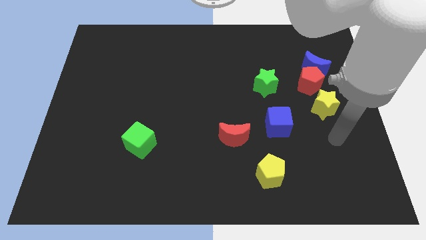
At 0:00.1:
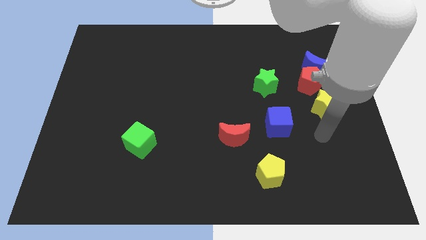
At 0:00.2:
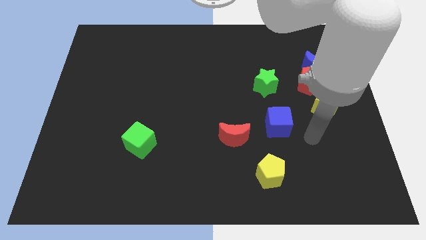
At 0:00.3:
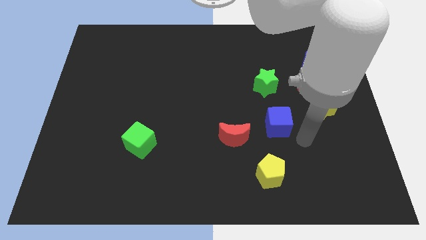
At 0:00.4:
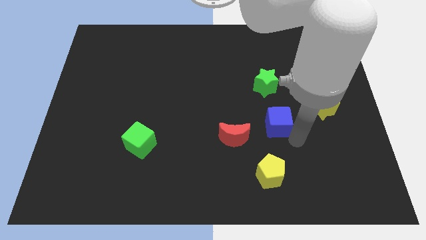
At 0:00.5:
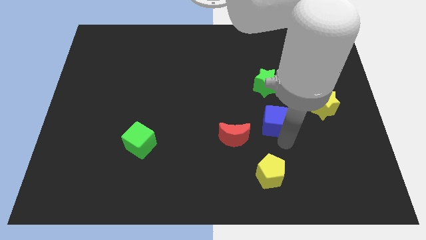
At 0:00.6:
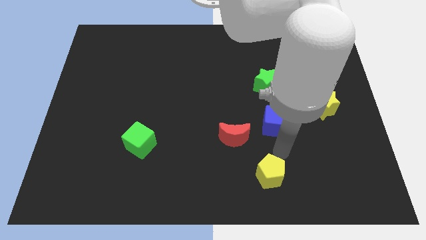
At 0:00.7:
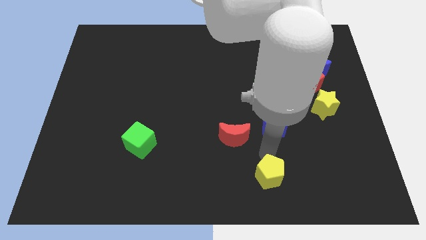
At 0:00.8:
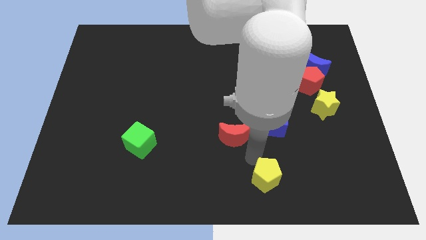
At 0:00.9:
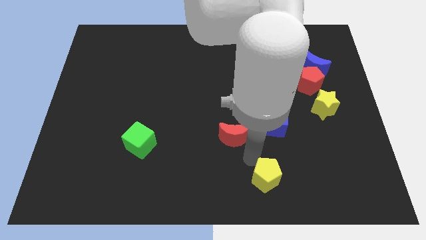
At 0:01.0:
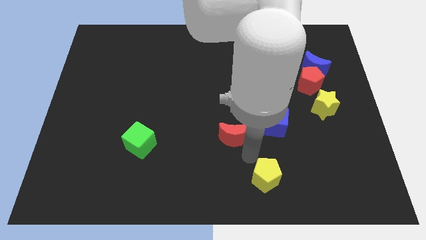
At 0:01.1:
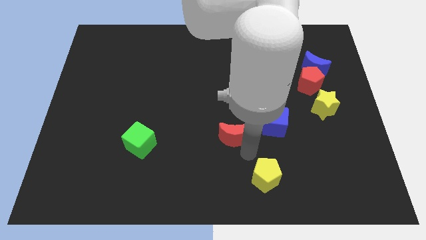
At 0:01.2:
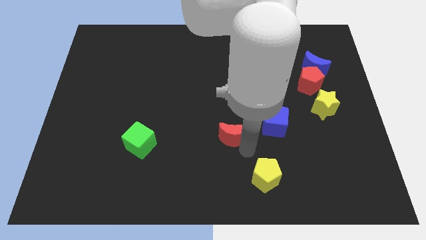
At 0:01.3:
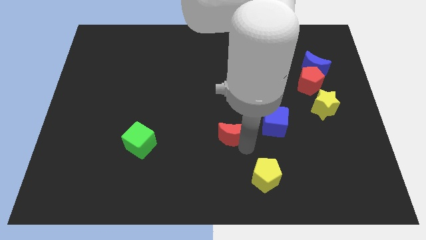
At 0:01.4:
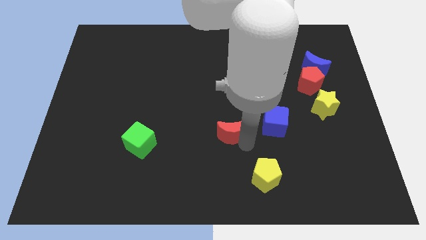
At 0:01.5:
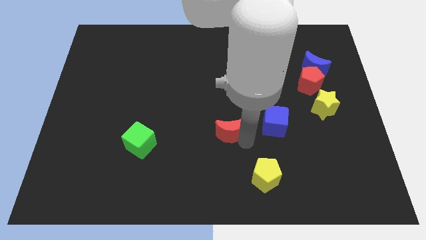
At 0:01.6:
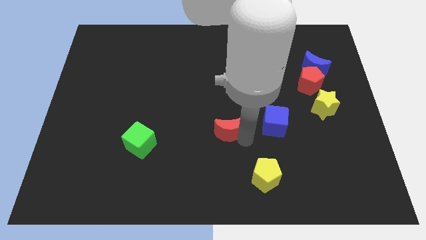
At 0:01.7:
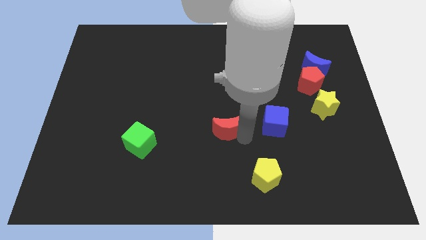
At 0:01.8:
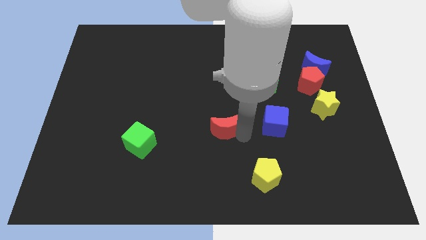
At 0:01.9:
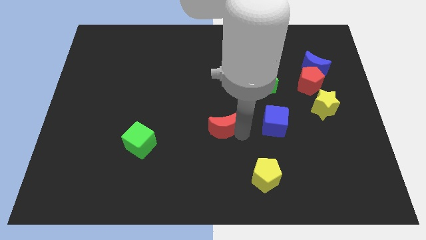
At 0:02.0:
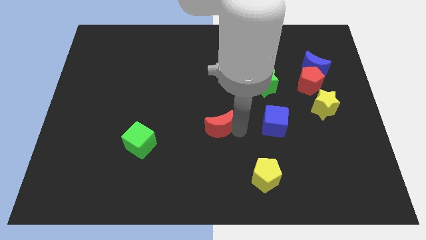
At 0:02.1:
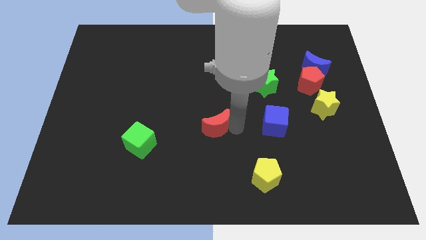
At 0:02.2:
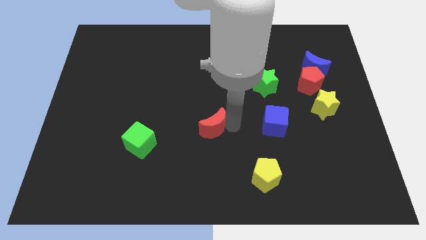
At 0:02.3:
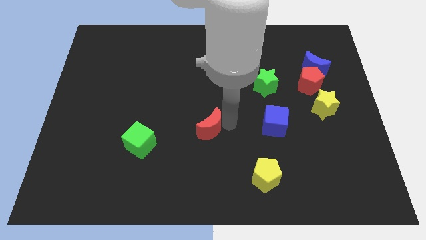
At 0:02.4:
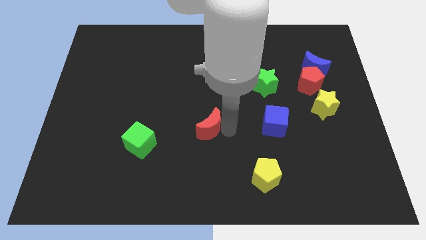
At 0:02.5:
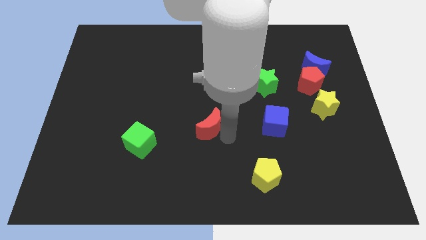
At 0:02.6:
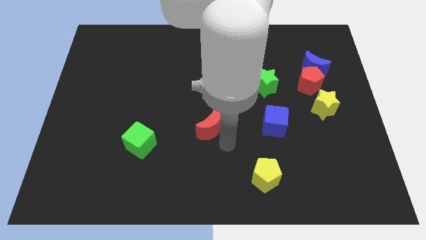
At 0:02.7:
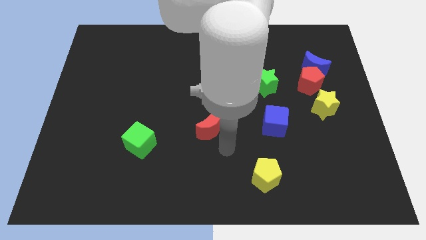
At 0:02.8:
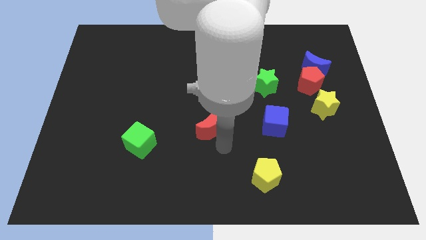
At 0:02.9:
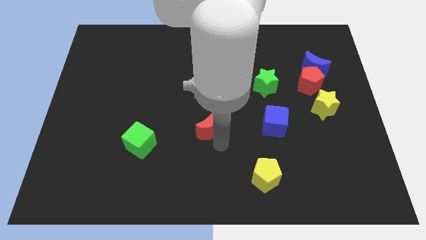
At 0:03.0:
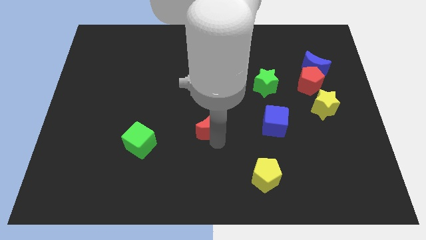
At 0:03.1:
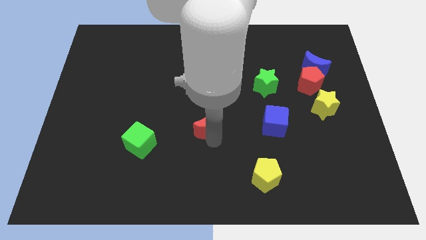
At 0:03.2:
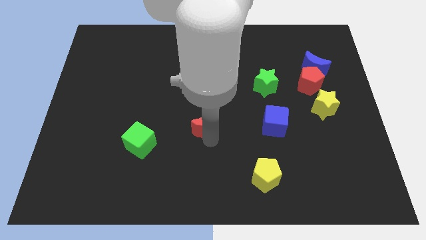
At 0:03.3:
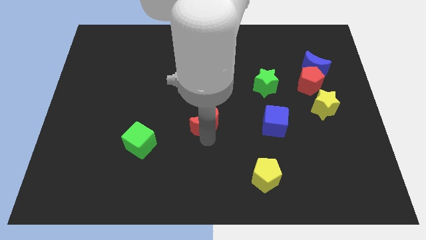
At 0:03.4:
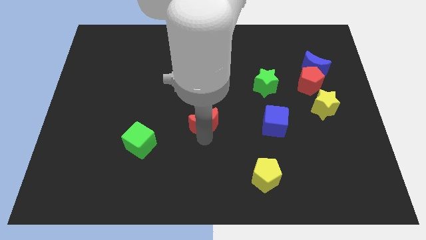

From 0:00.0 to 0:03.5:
move the red moon upwards and left a little

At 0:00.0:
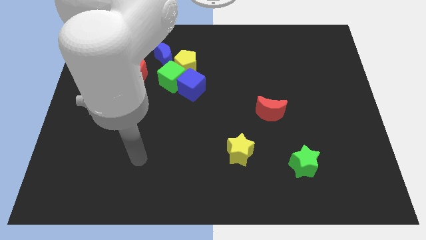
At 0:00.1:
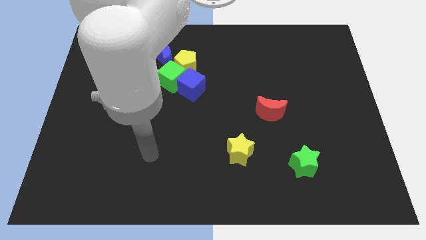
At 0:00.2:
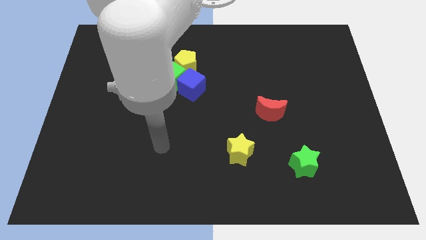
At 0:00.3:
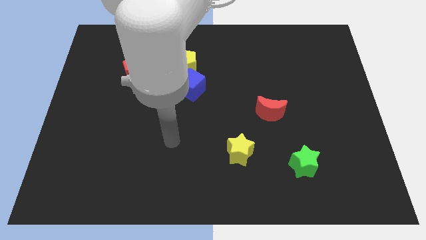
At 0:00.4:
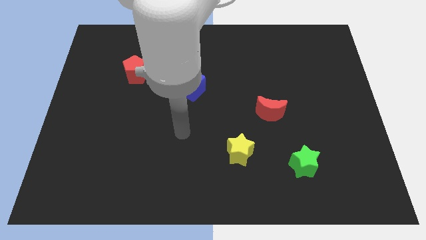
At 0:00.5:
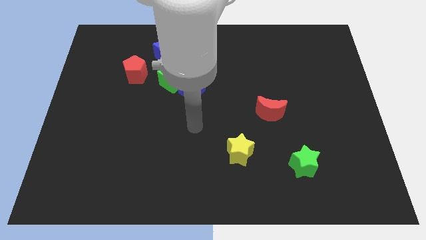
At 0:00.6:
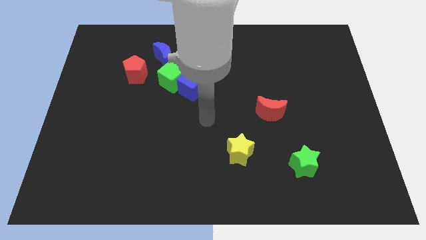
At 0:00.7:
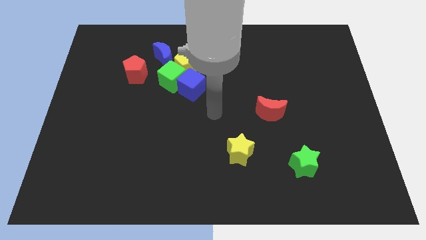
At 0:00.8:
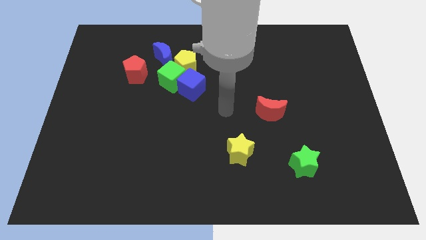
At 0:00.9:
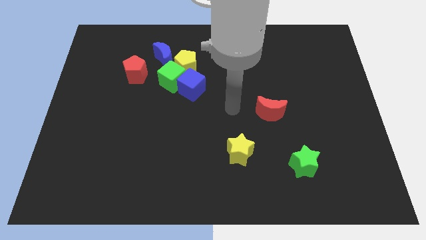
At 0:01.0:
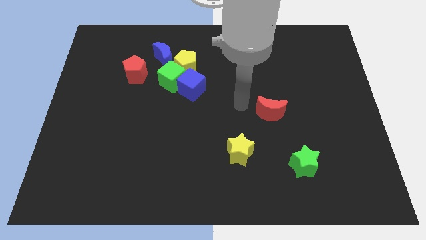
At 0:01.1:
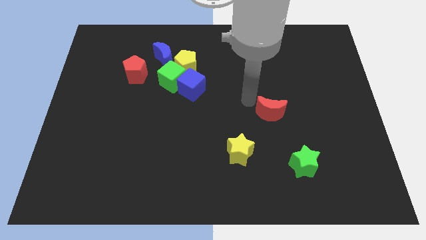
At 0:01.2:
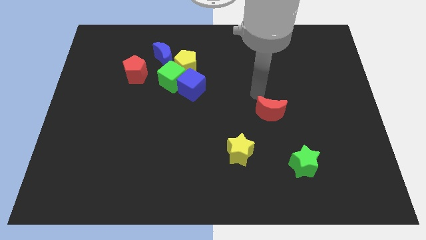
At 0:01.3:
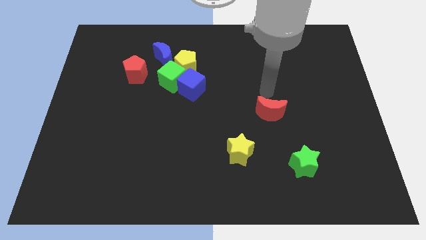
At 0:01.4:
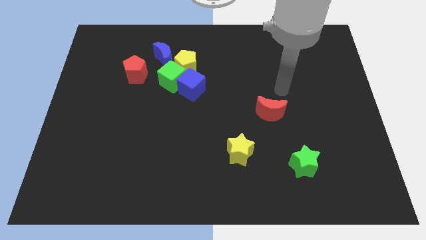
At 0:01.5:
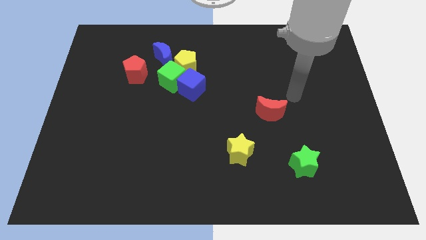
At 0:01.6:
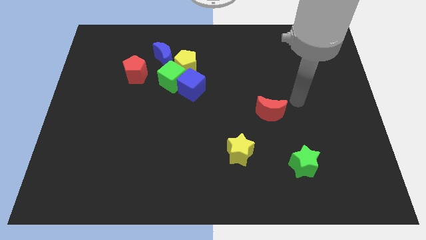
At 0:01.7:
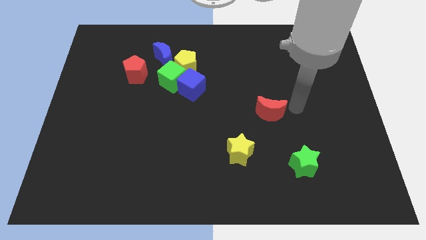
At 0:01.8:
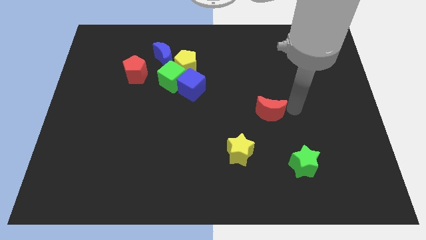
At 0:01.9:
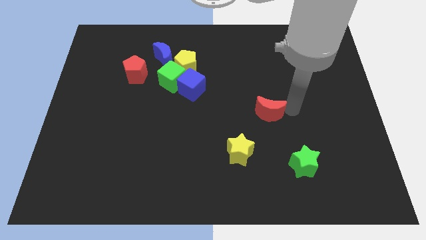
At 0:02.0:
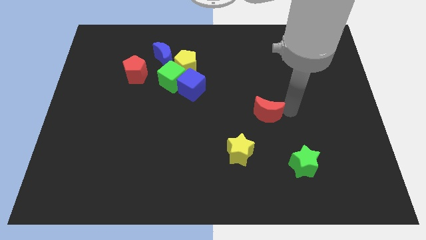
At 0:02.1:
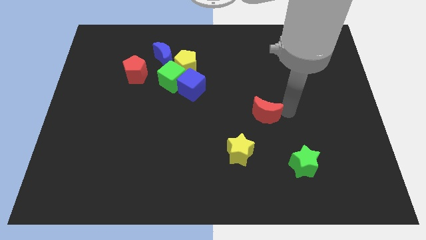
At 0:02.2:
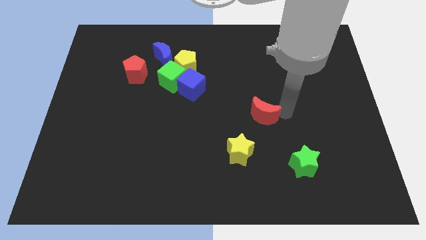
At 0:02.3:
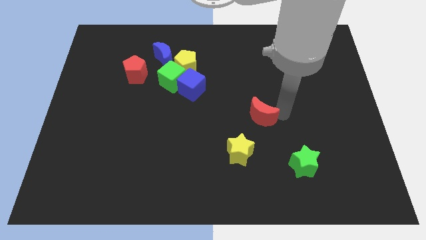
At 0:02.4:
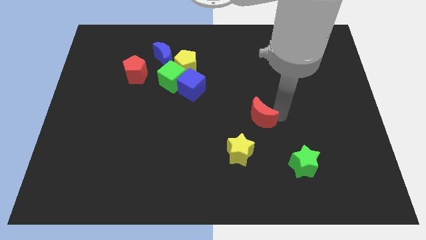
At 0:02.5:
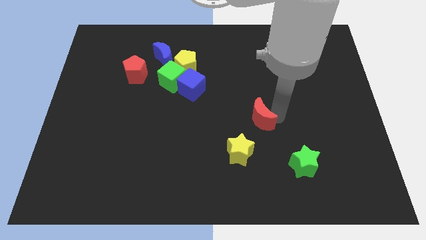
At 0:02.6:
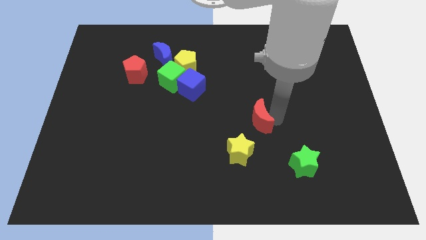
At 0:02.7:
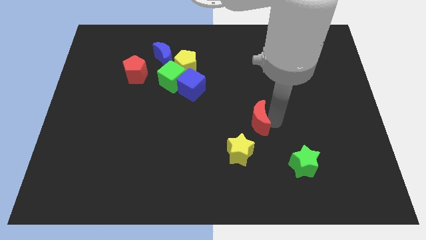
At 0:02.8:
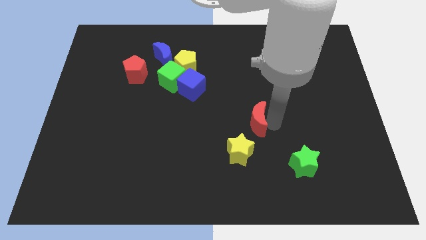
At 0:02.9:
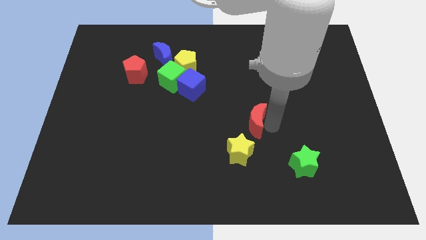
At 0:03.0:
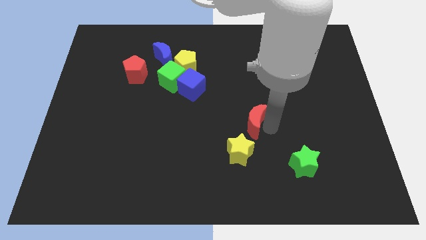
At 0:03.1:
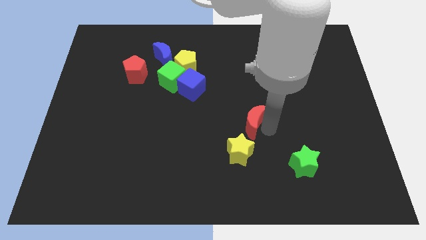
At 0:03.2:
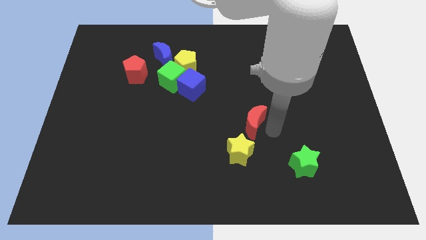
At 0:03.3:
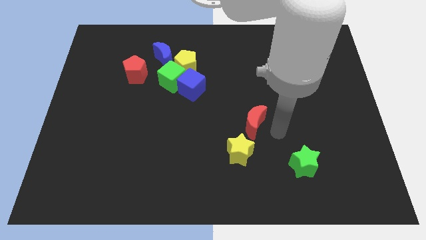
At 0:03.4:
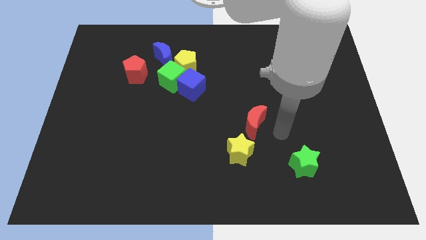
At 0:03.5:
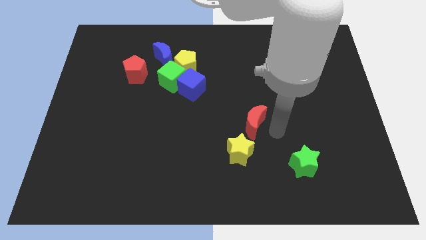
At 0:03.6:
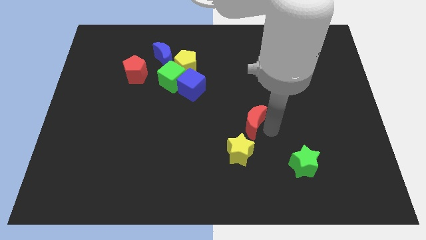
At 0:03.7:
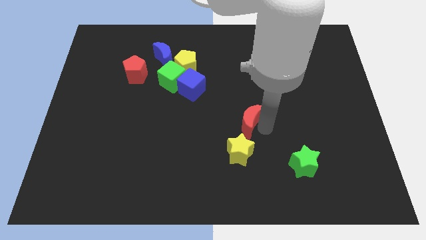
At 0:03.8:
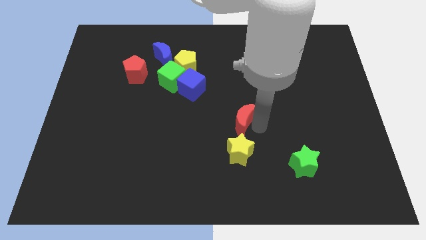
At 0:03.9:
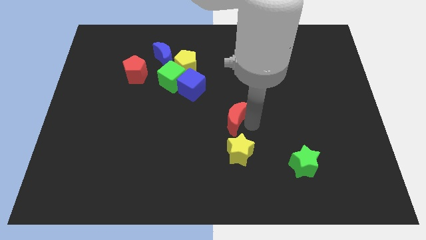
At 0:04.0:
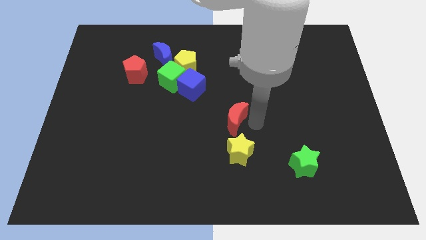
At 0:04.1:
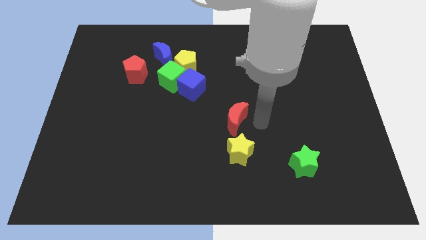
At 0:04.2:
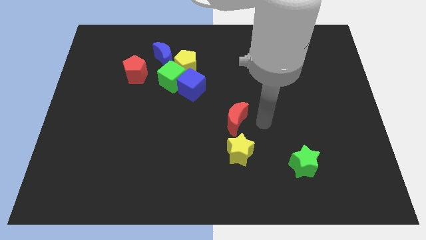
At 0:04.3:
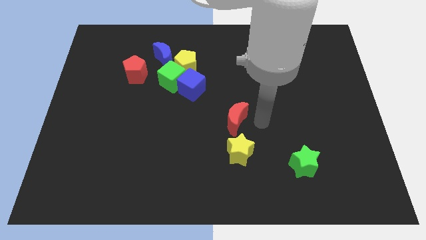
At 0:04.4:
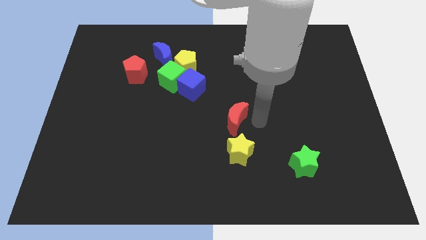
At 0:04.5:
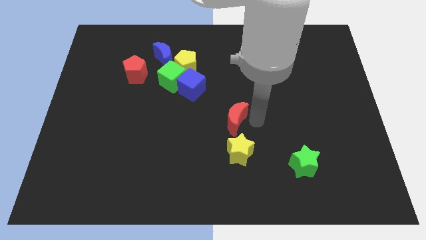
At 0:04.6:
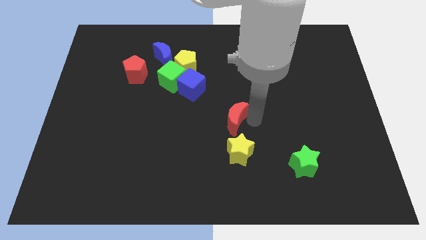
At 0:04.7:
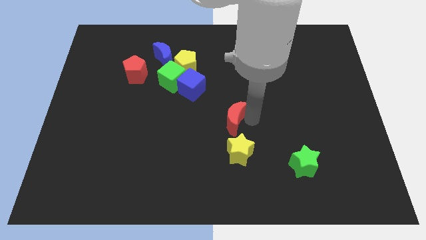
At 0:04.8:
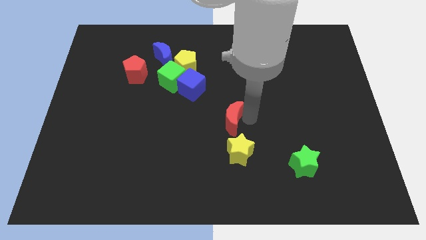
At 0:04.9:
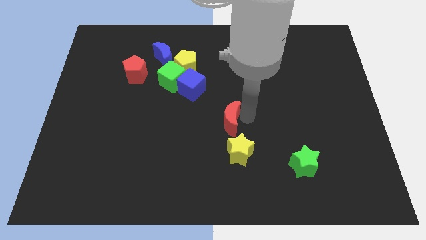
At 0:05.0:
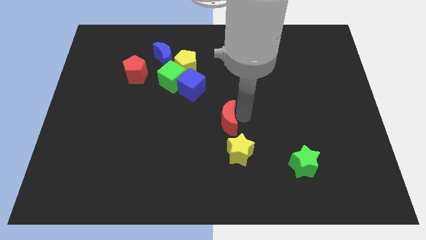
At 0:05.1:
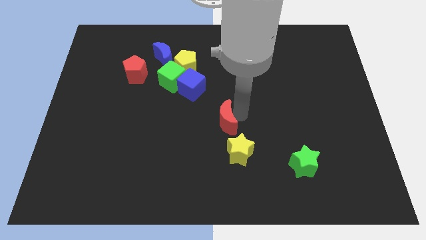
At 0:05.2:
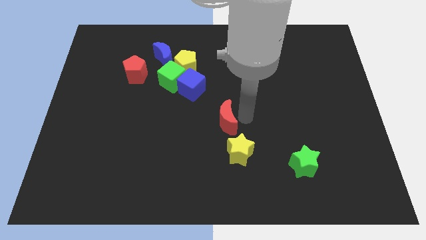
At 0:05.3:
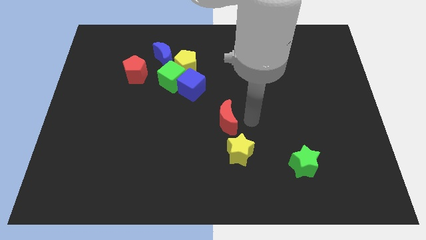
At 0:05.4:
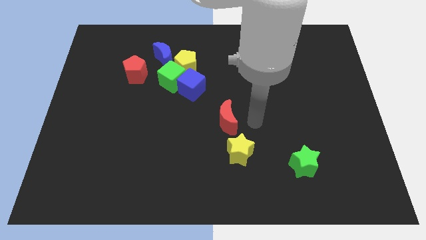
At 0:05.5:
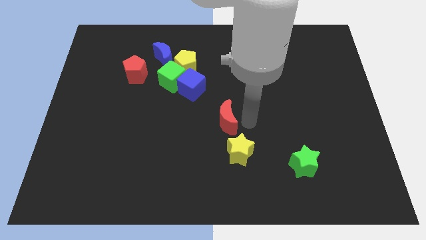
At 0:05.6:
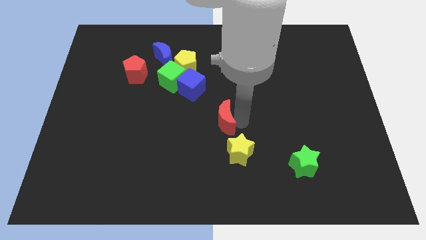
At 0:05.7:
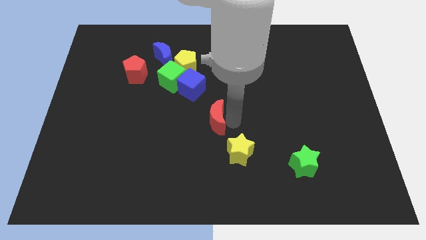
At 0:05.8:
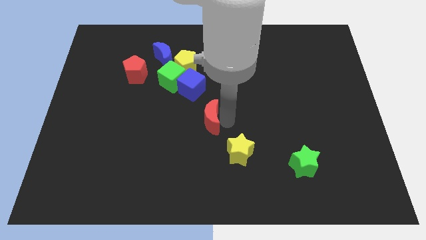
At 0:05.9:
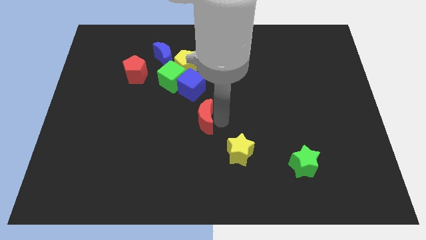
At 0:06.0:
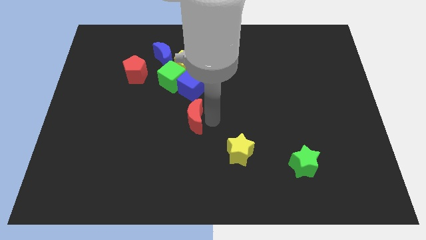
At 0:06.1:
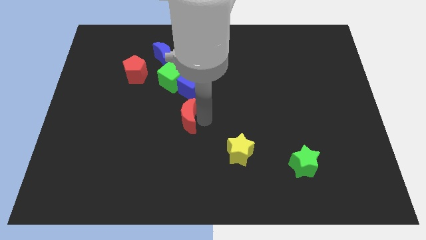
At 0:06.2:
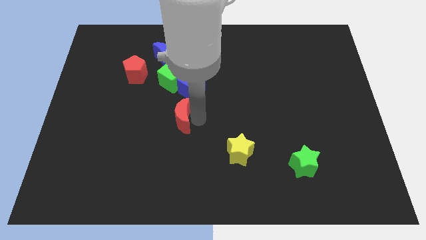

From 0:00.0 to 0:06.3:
push the red moon left
